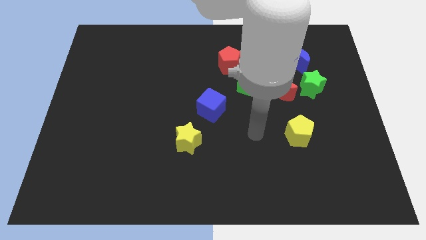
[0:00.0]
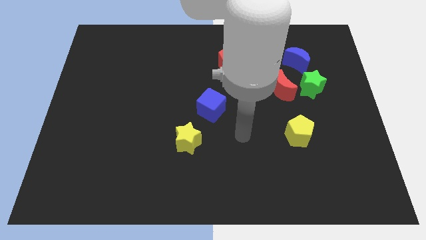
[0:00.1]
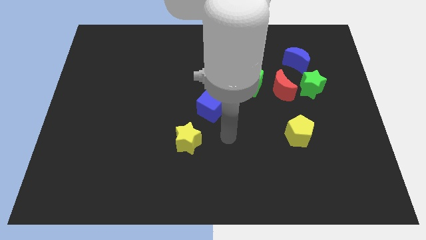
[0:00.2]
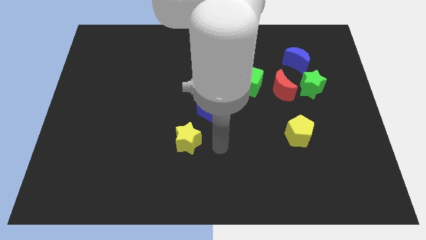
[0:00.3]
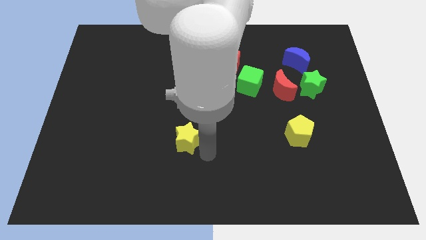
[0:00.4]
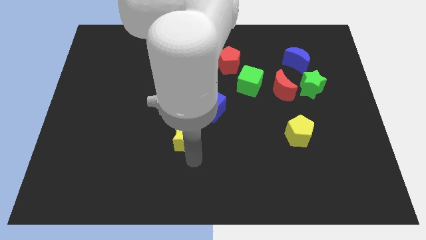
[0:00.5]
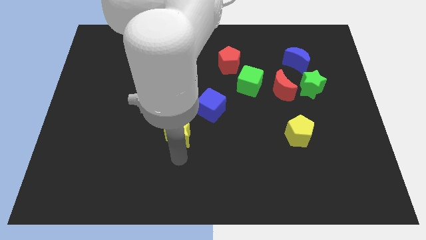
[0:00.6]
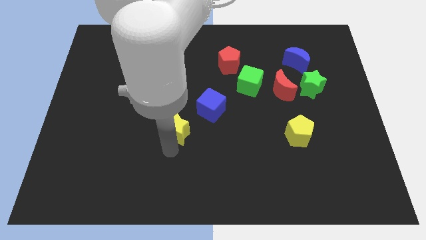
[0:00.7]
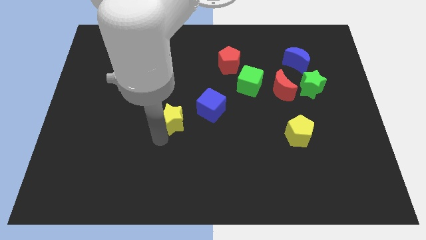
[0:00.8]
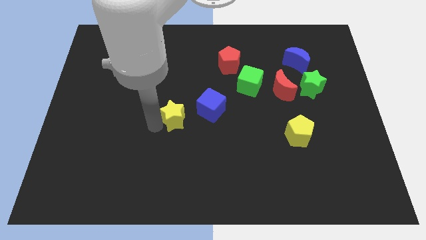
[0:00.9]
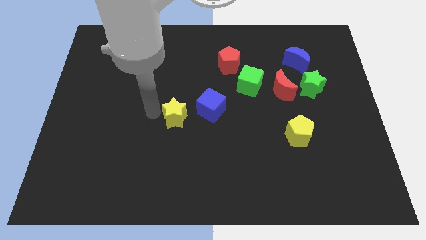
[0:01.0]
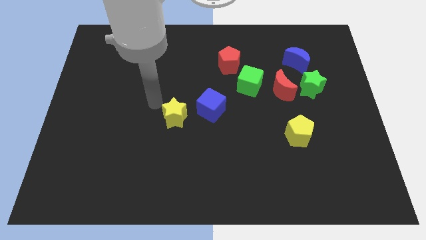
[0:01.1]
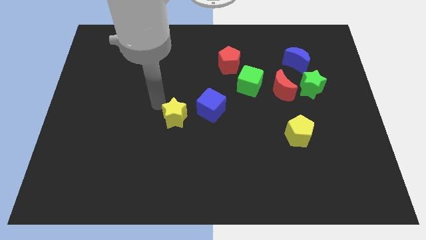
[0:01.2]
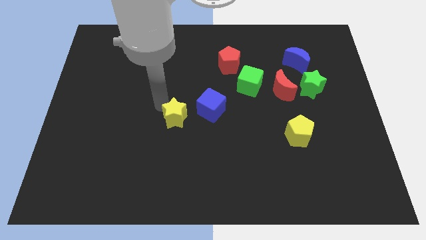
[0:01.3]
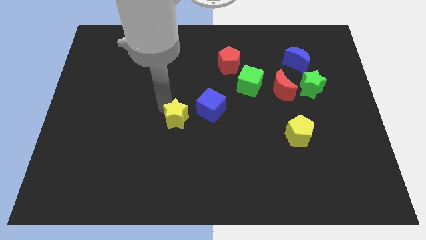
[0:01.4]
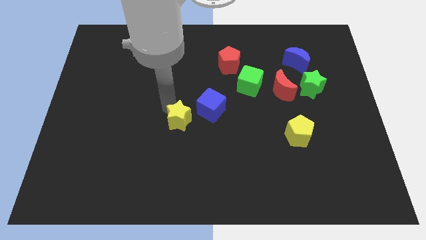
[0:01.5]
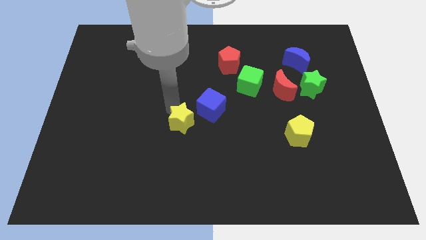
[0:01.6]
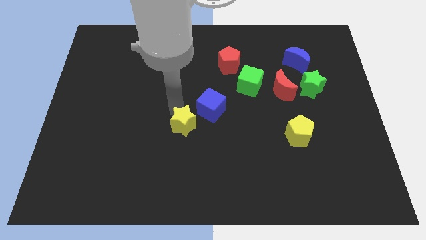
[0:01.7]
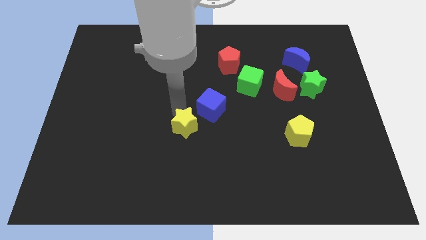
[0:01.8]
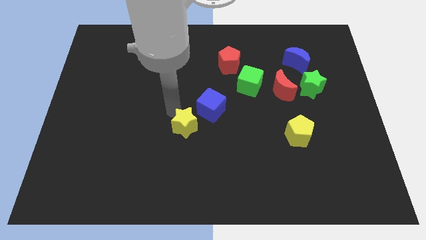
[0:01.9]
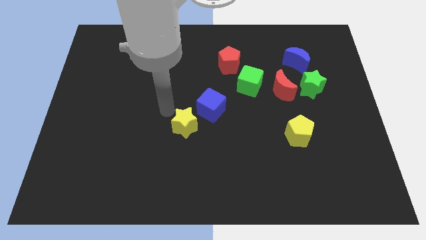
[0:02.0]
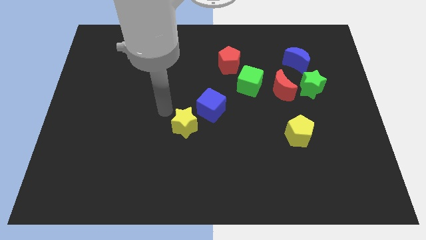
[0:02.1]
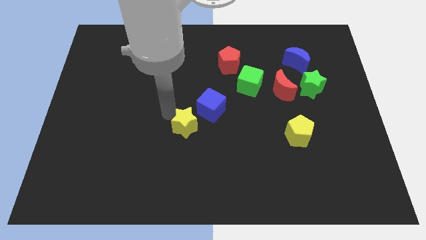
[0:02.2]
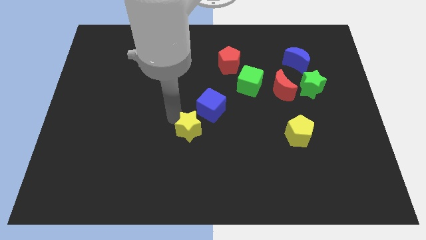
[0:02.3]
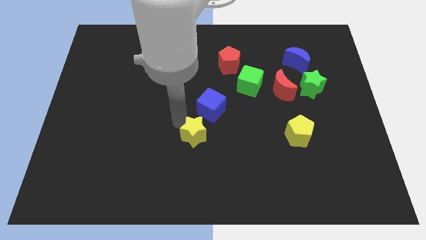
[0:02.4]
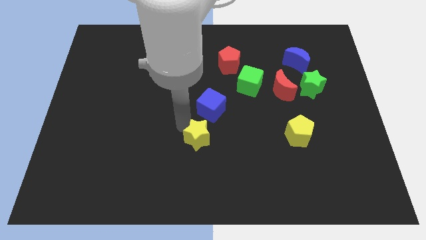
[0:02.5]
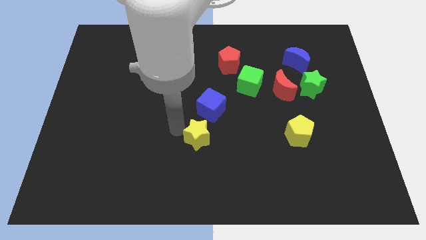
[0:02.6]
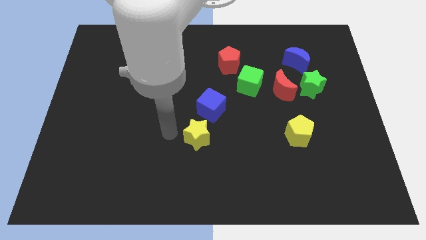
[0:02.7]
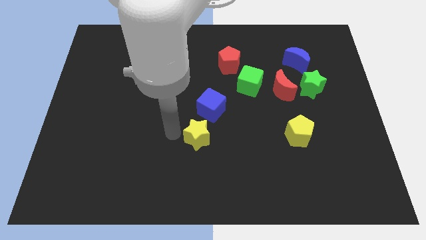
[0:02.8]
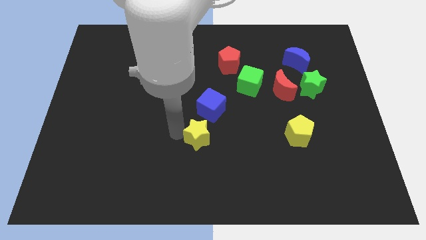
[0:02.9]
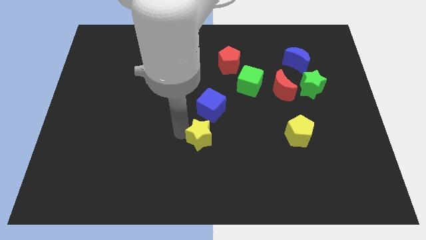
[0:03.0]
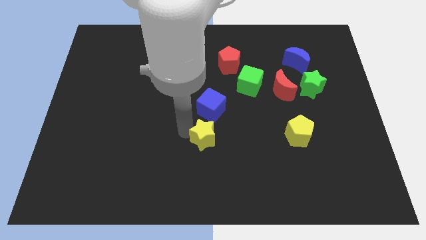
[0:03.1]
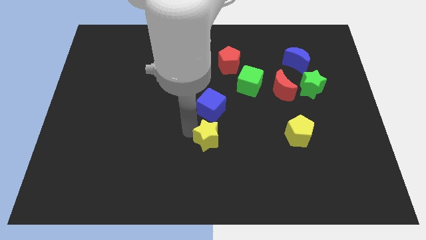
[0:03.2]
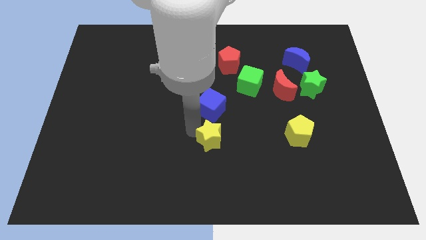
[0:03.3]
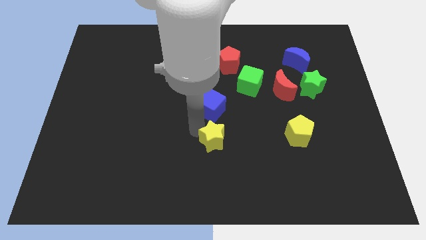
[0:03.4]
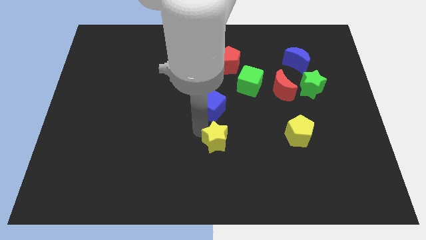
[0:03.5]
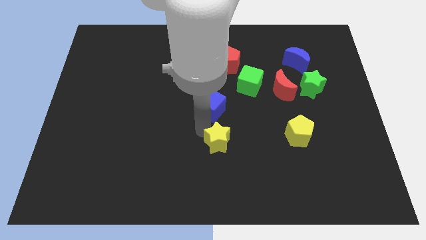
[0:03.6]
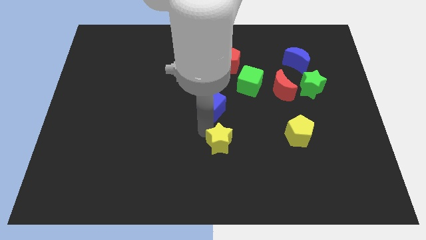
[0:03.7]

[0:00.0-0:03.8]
move the yellow star right a little bit

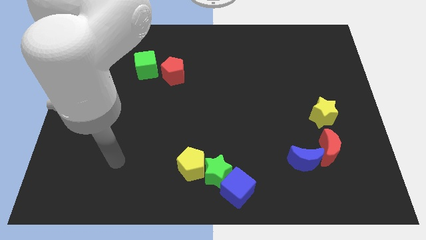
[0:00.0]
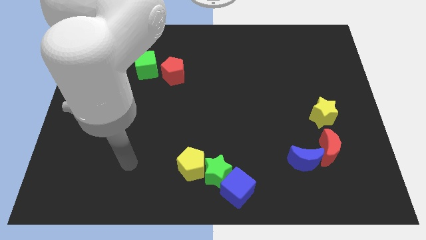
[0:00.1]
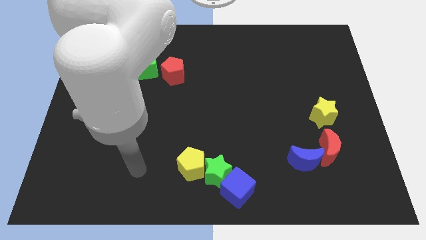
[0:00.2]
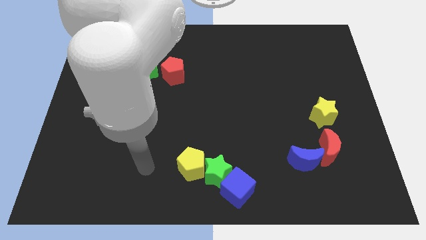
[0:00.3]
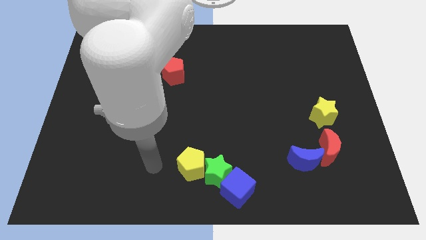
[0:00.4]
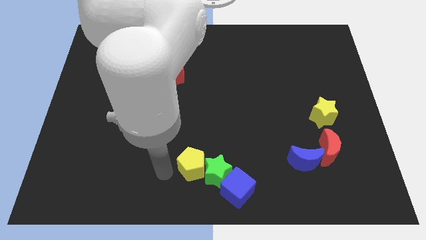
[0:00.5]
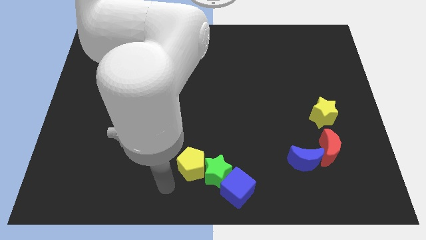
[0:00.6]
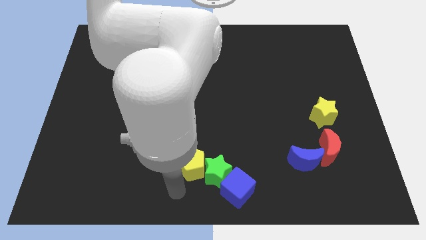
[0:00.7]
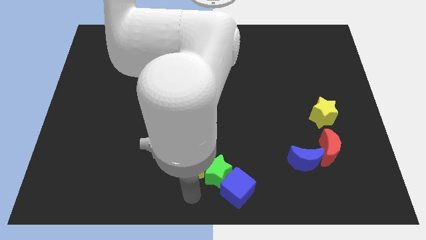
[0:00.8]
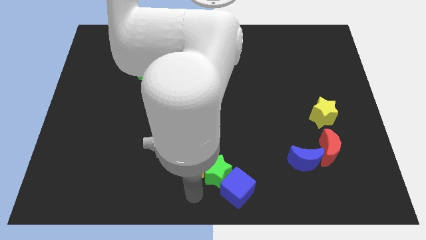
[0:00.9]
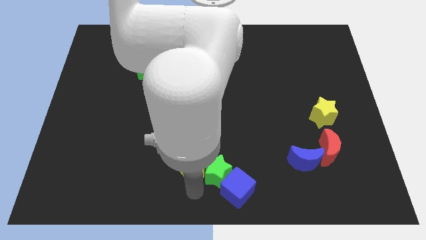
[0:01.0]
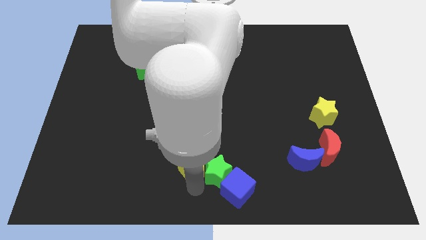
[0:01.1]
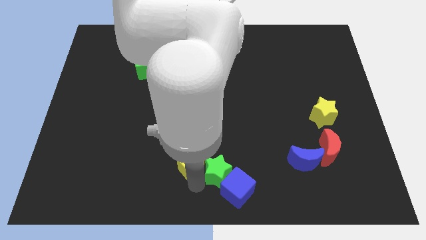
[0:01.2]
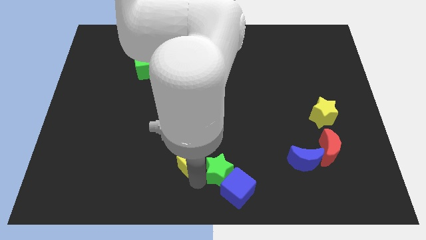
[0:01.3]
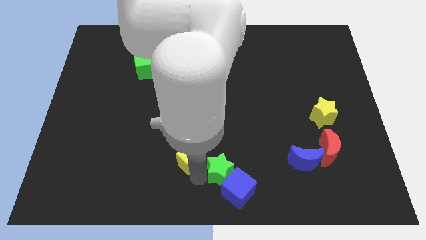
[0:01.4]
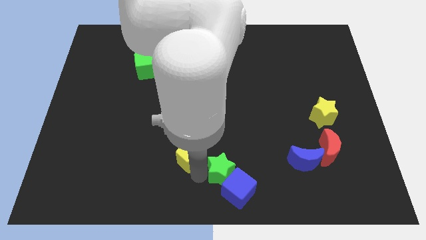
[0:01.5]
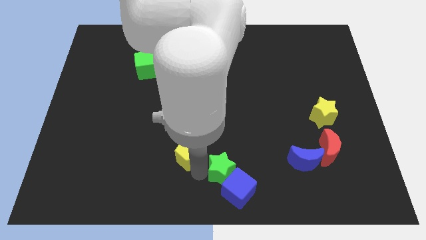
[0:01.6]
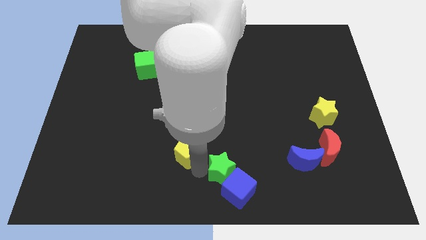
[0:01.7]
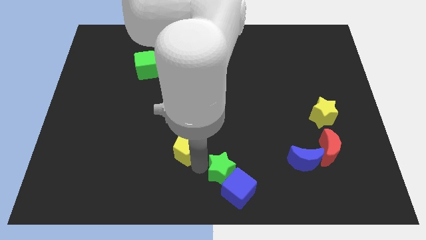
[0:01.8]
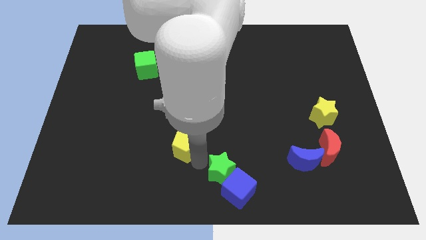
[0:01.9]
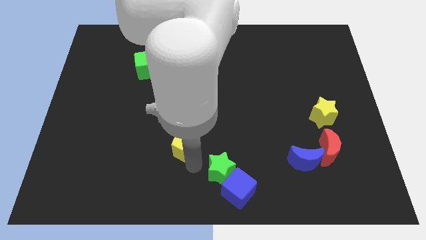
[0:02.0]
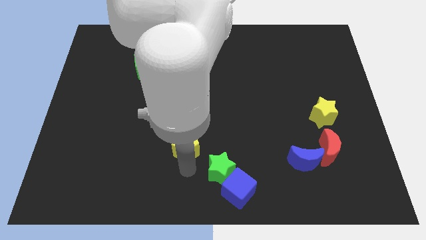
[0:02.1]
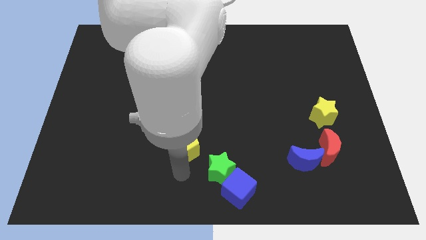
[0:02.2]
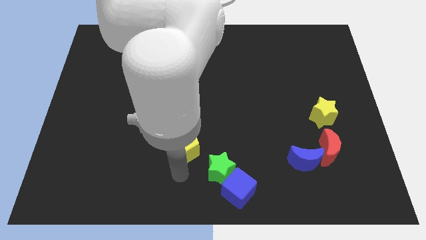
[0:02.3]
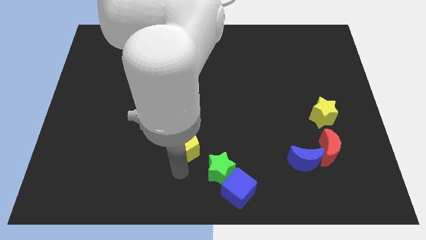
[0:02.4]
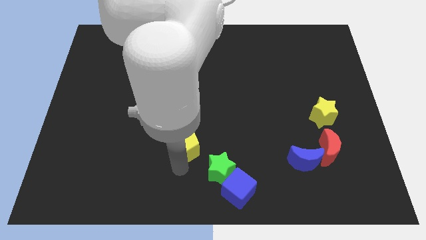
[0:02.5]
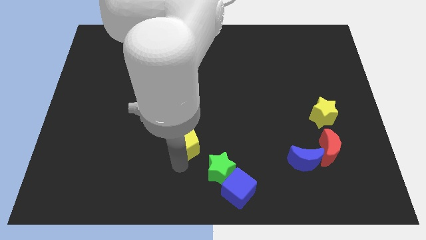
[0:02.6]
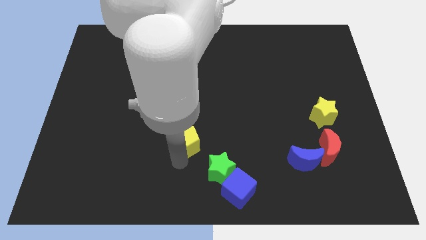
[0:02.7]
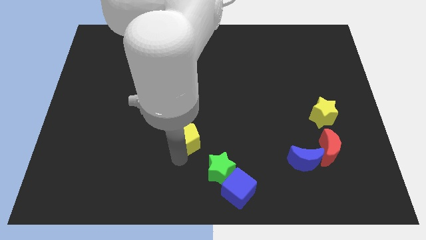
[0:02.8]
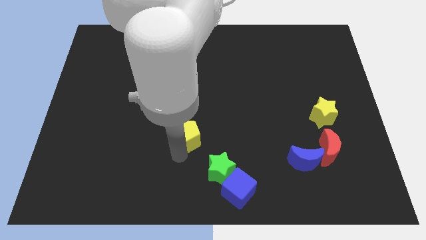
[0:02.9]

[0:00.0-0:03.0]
slightly slide the yellow pentagon upwards

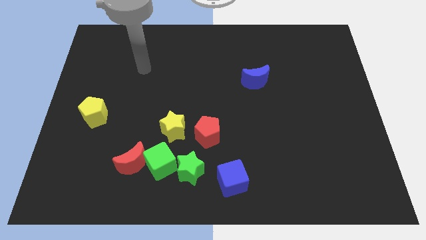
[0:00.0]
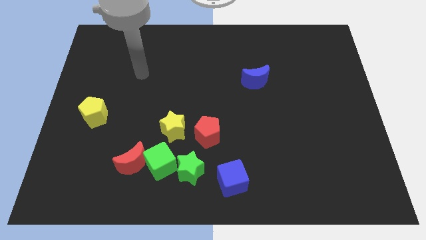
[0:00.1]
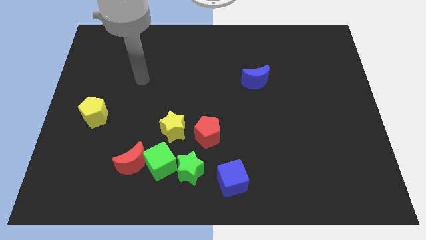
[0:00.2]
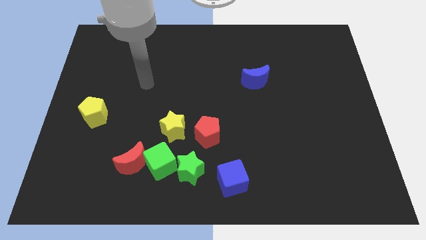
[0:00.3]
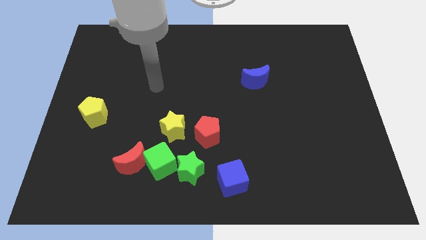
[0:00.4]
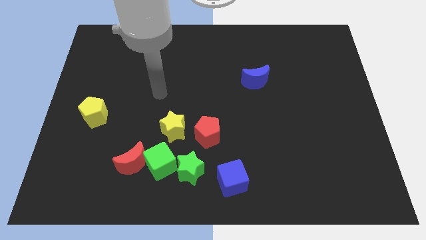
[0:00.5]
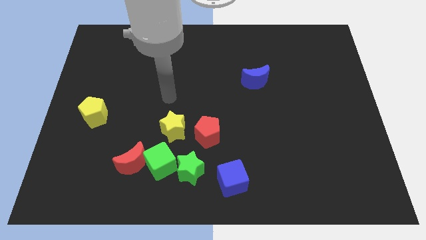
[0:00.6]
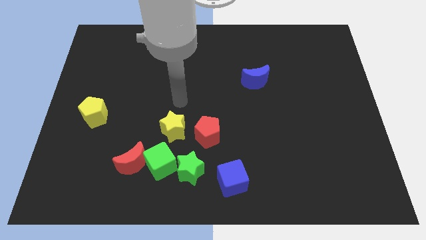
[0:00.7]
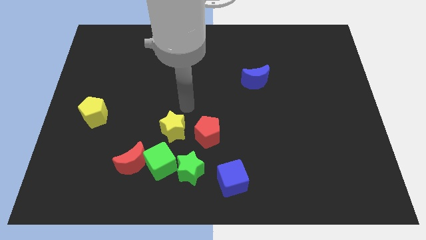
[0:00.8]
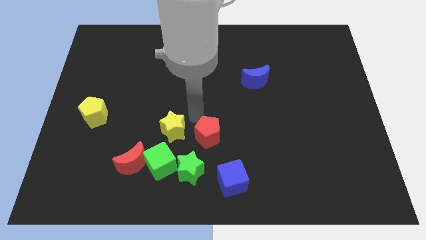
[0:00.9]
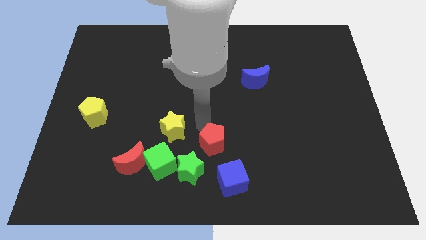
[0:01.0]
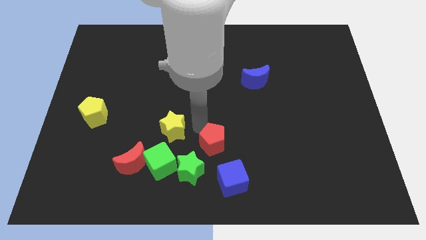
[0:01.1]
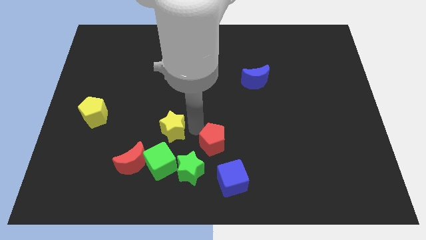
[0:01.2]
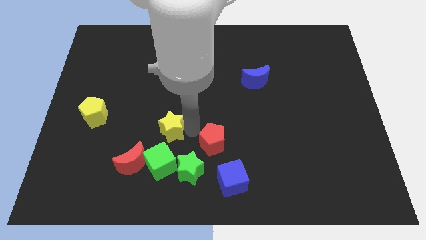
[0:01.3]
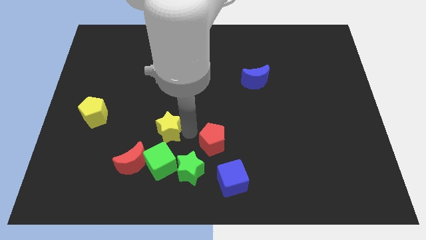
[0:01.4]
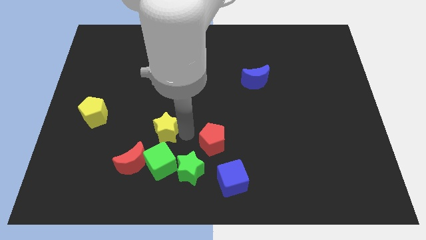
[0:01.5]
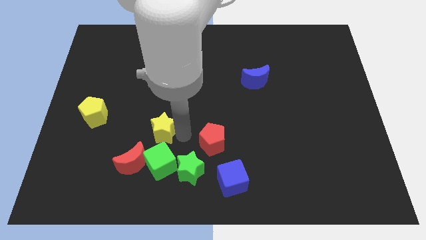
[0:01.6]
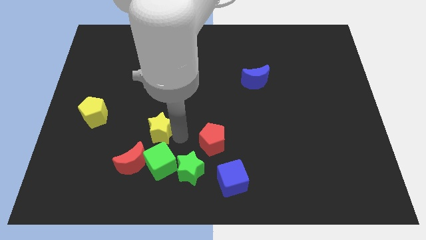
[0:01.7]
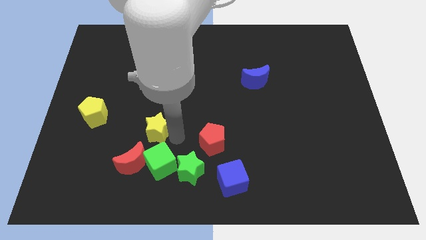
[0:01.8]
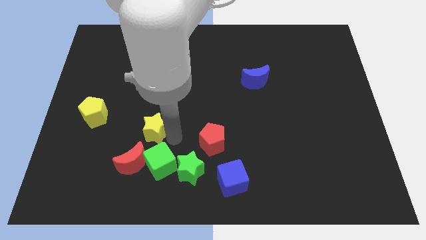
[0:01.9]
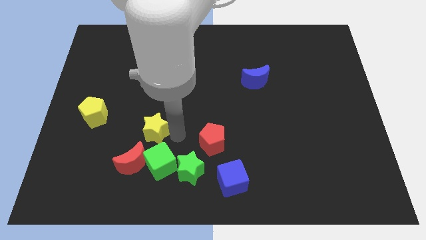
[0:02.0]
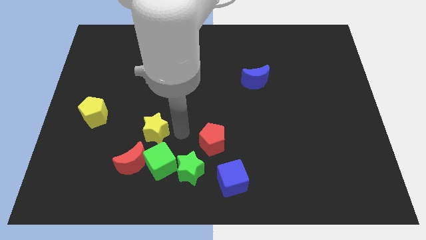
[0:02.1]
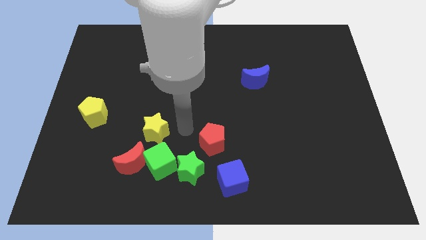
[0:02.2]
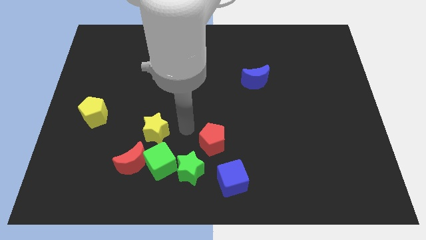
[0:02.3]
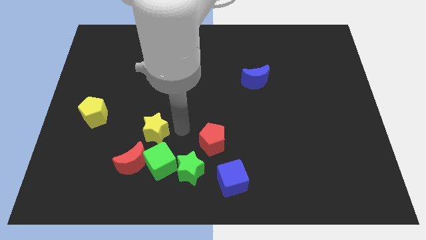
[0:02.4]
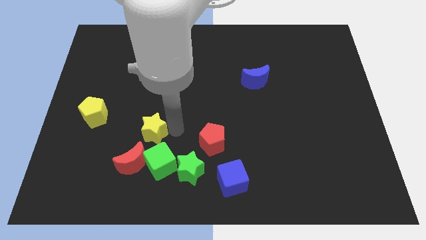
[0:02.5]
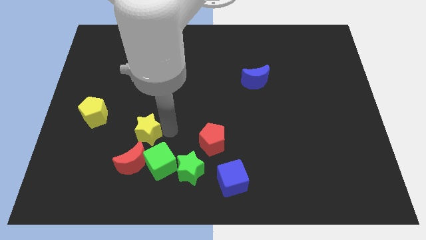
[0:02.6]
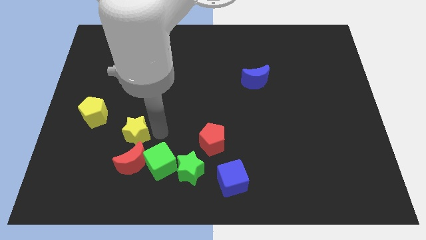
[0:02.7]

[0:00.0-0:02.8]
push the yellow star a bit left
